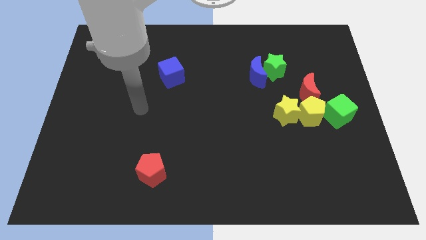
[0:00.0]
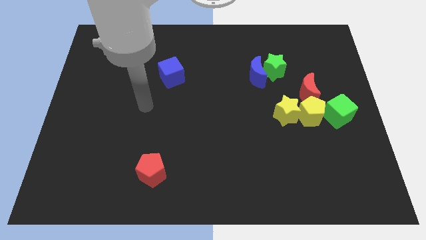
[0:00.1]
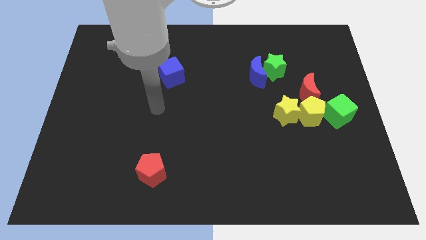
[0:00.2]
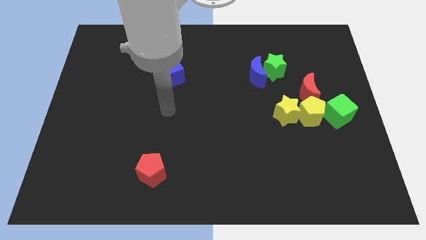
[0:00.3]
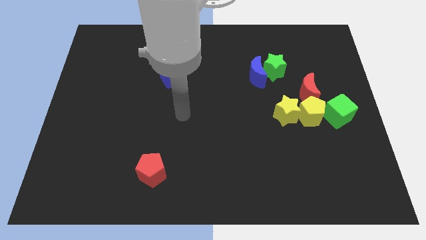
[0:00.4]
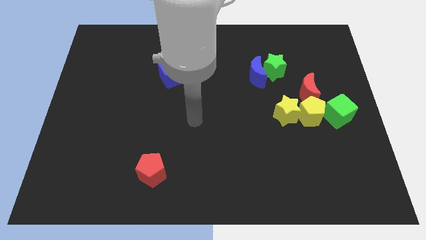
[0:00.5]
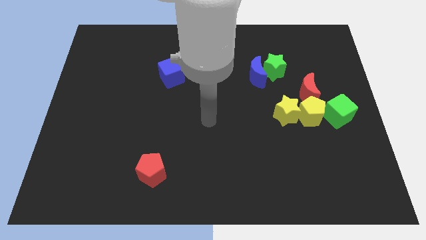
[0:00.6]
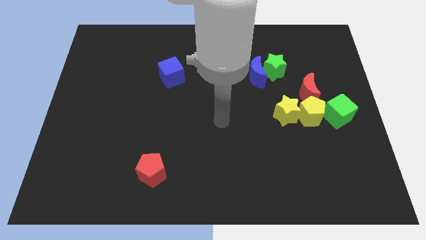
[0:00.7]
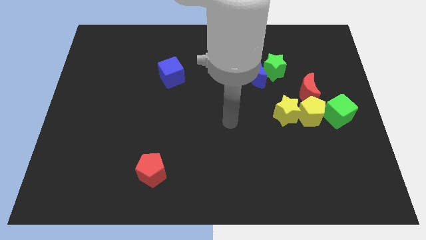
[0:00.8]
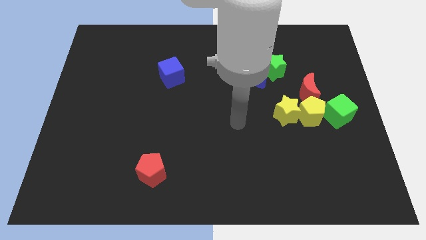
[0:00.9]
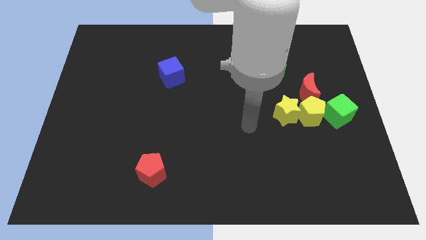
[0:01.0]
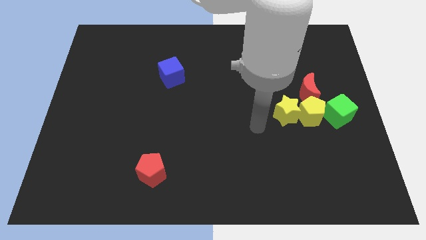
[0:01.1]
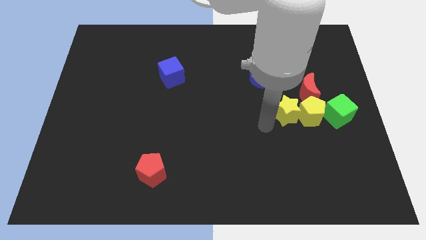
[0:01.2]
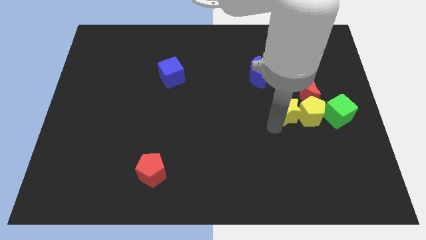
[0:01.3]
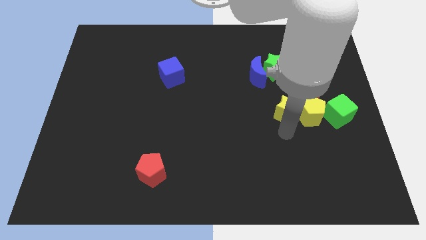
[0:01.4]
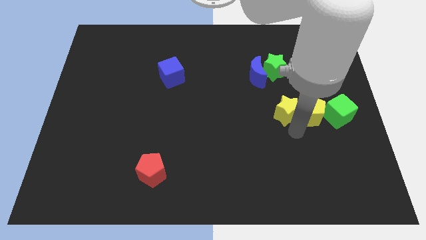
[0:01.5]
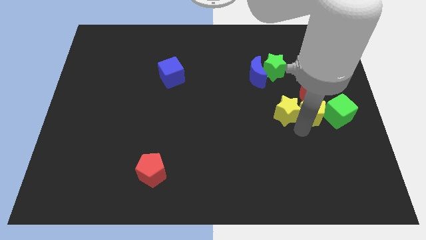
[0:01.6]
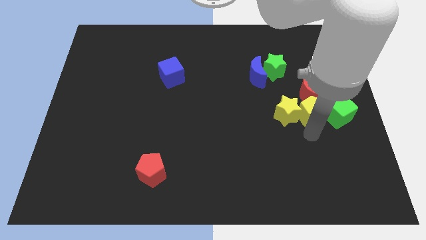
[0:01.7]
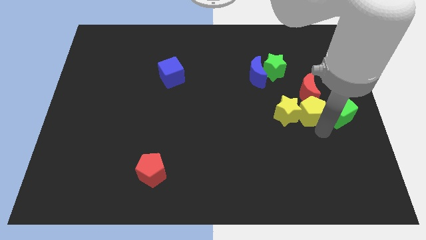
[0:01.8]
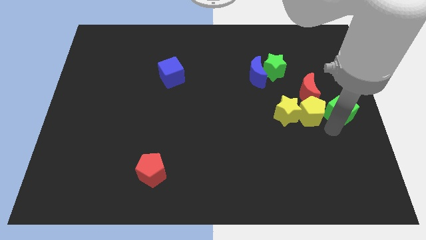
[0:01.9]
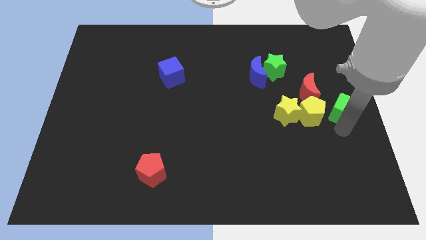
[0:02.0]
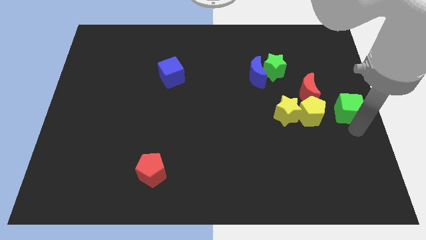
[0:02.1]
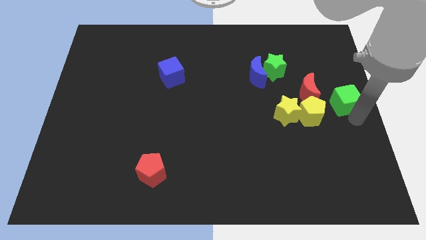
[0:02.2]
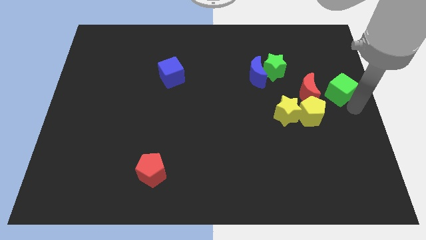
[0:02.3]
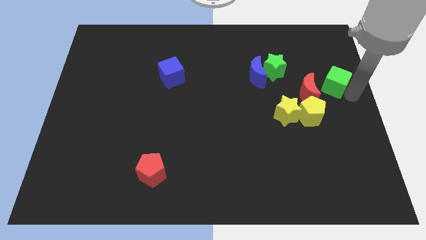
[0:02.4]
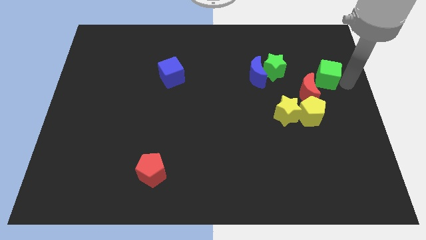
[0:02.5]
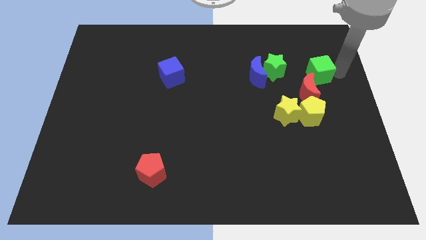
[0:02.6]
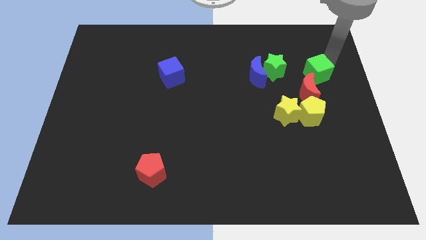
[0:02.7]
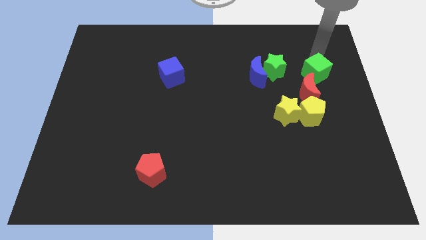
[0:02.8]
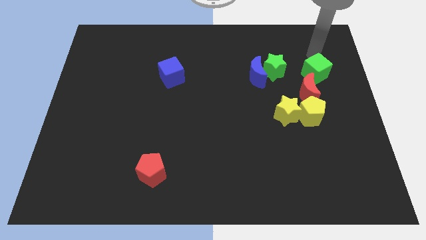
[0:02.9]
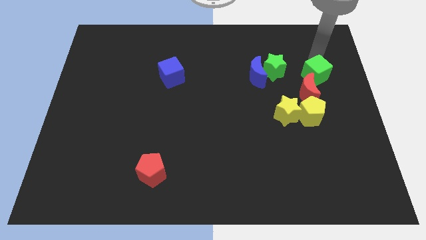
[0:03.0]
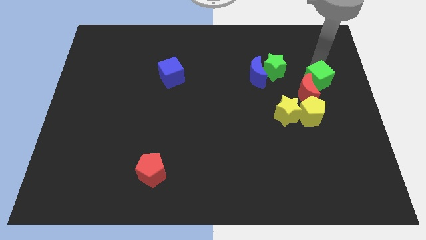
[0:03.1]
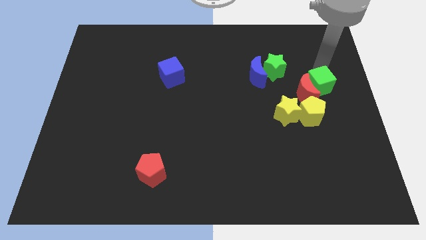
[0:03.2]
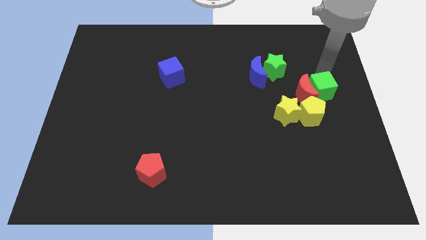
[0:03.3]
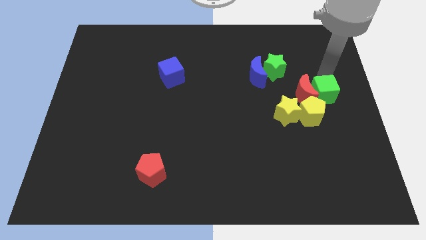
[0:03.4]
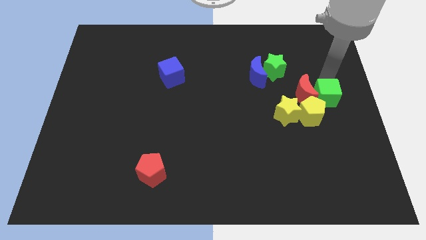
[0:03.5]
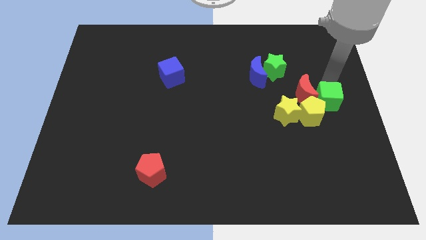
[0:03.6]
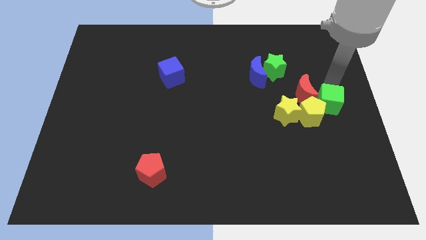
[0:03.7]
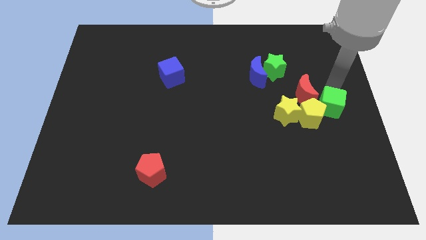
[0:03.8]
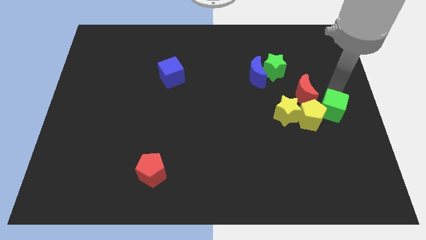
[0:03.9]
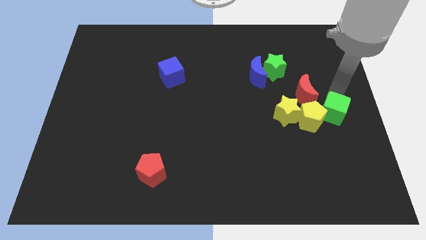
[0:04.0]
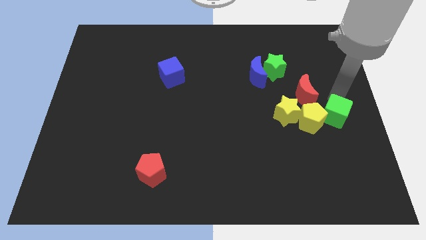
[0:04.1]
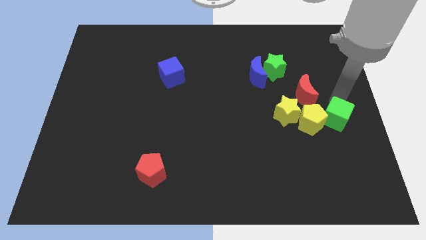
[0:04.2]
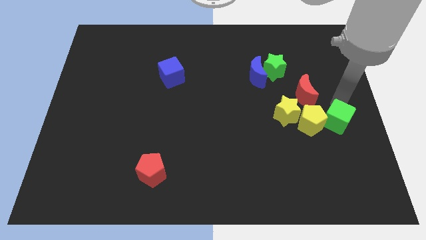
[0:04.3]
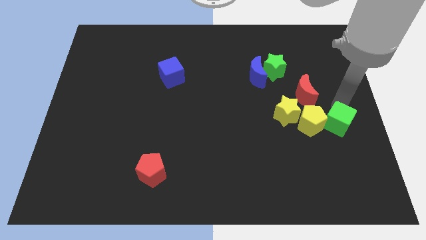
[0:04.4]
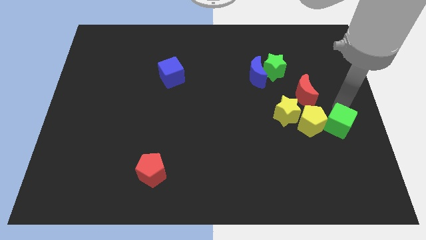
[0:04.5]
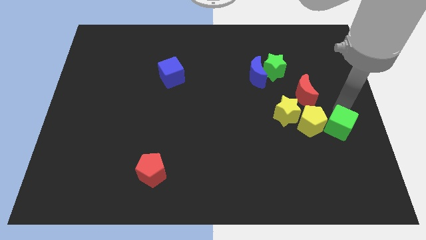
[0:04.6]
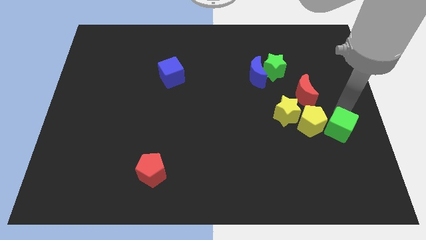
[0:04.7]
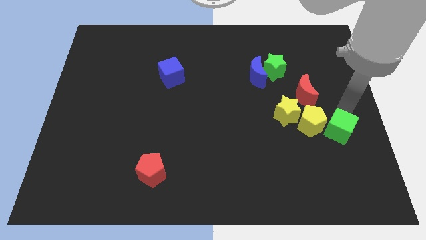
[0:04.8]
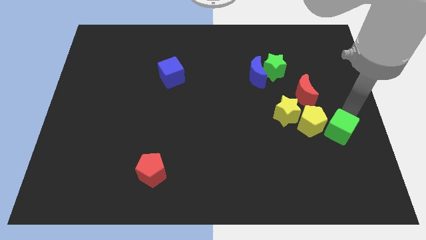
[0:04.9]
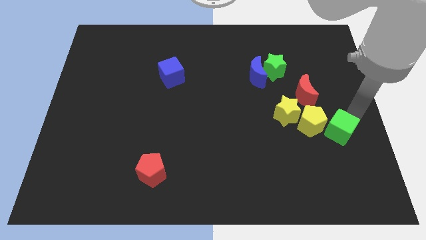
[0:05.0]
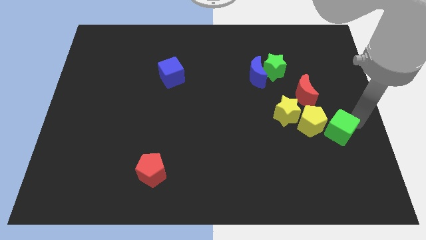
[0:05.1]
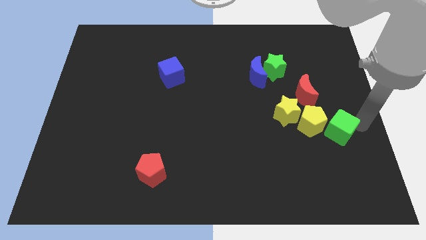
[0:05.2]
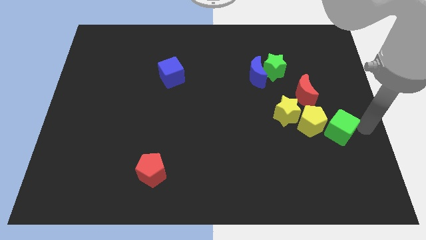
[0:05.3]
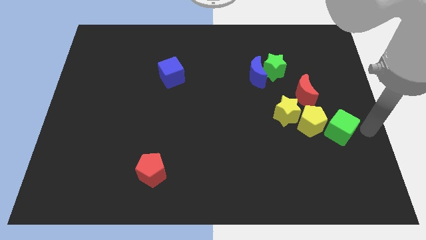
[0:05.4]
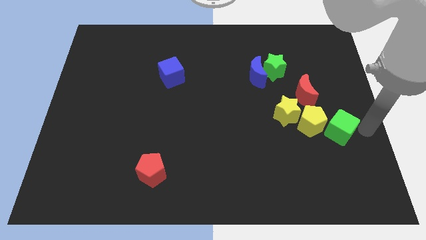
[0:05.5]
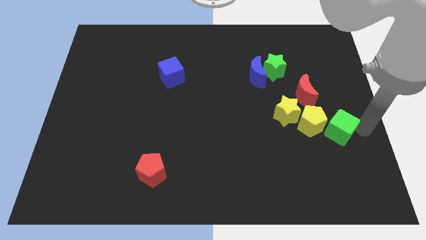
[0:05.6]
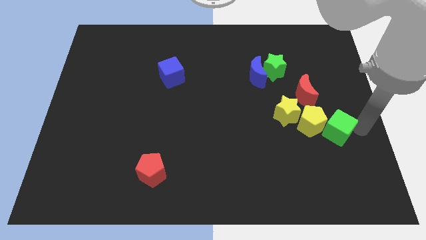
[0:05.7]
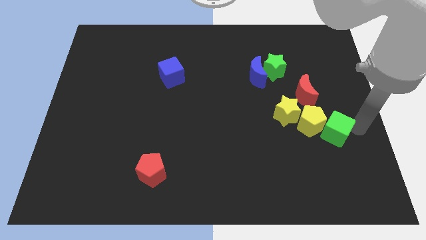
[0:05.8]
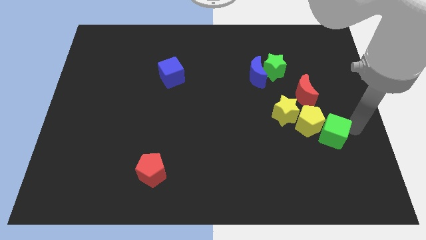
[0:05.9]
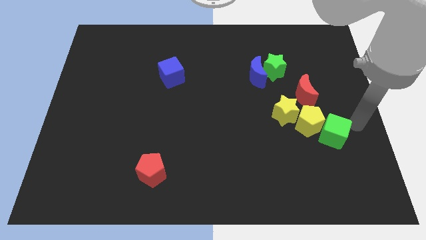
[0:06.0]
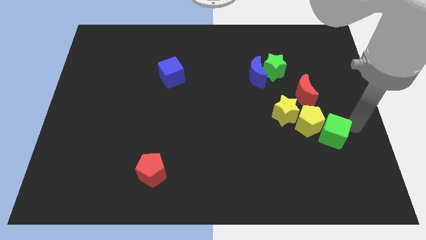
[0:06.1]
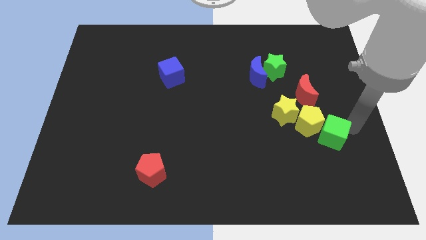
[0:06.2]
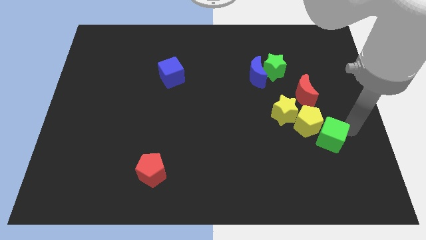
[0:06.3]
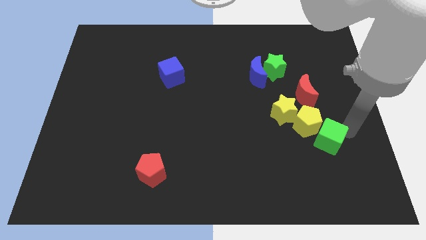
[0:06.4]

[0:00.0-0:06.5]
slightly slide the green cube down and then to the left

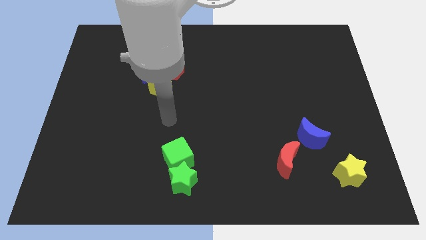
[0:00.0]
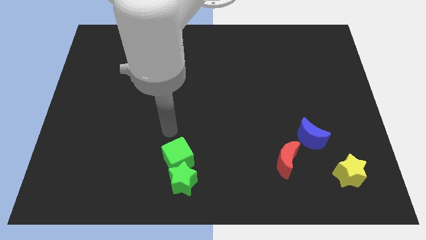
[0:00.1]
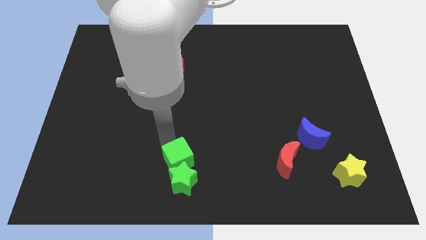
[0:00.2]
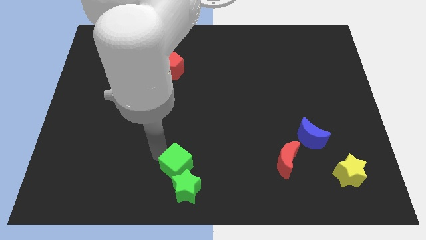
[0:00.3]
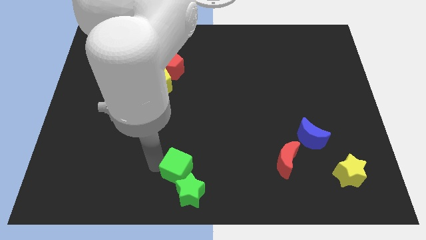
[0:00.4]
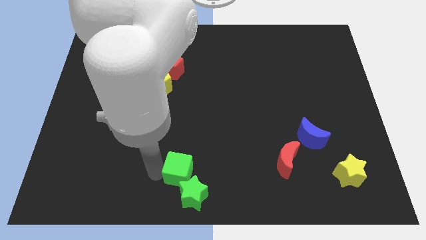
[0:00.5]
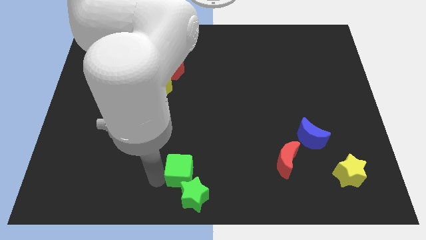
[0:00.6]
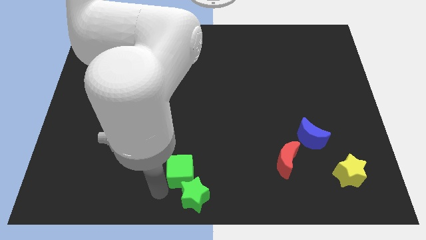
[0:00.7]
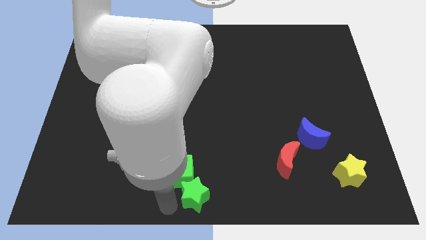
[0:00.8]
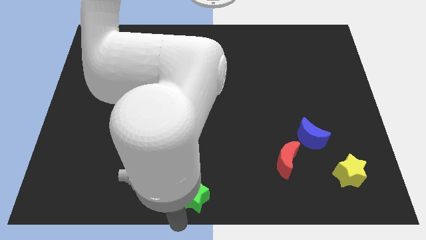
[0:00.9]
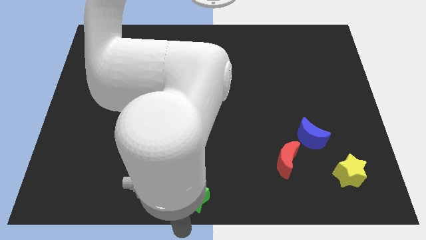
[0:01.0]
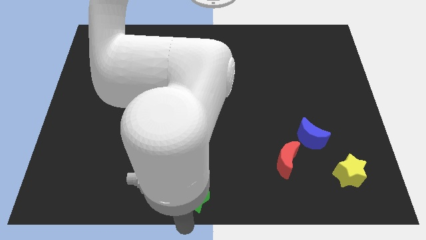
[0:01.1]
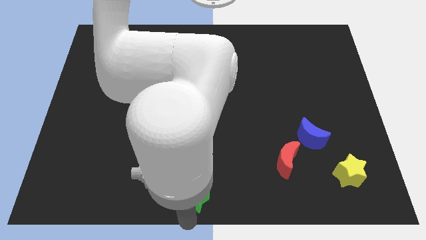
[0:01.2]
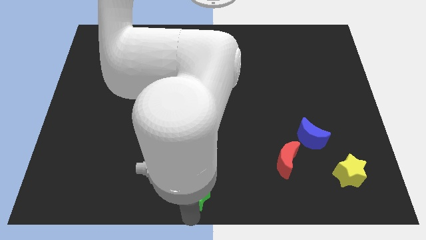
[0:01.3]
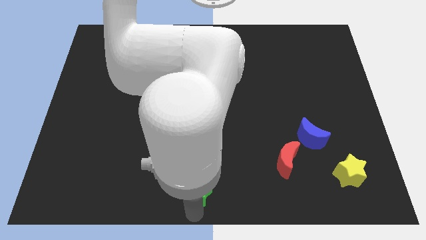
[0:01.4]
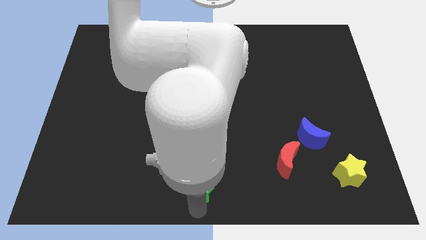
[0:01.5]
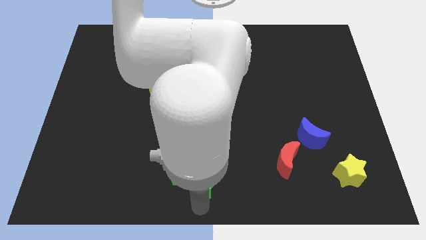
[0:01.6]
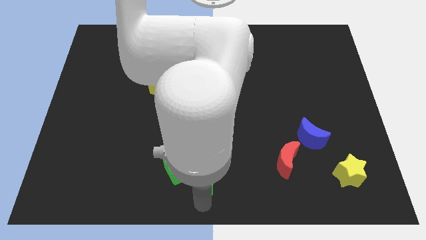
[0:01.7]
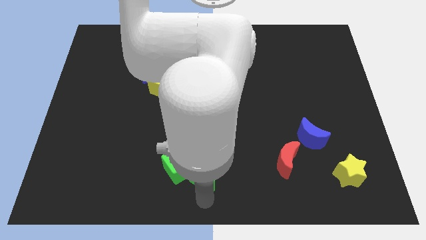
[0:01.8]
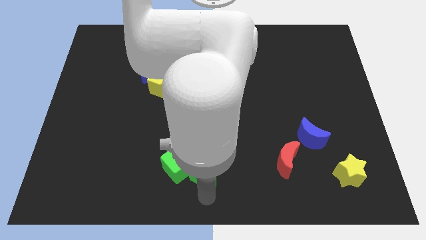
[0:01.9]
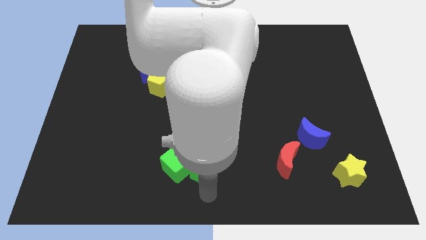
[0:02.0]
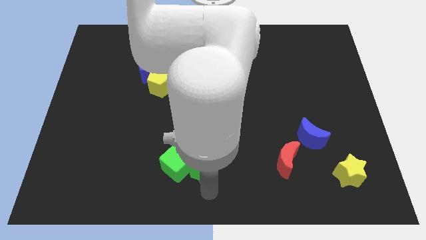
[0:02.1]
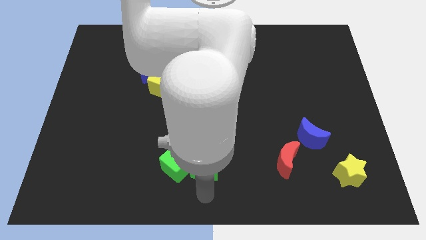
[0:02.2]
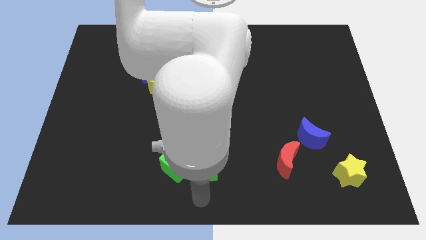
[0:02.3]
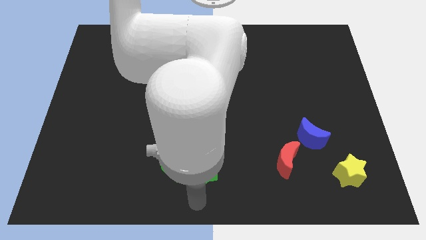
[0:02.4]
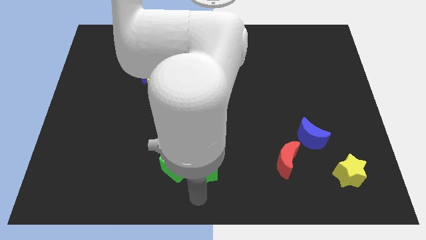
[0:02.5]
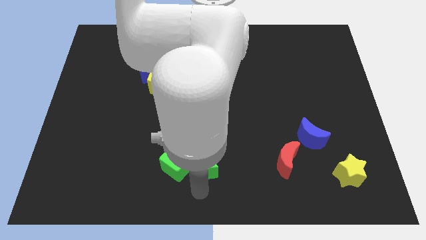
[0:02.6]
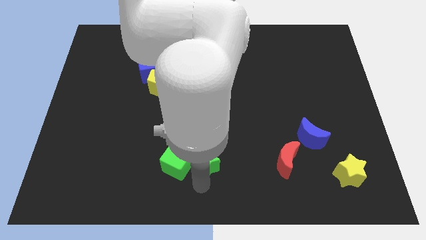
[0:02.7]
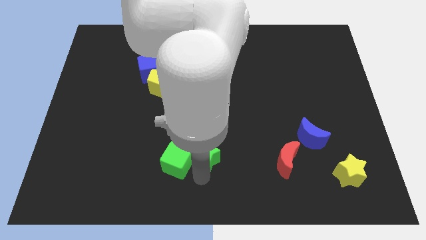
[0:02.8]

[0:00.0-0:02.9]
slide the green star slightly upwards and then to the right
